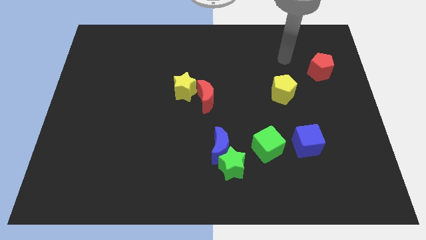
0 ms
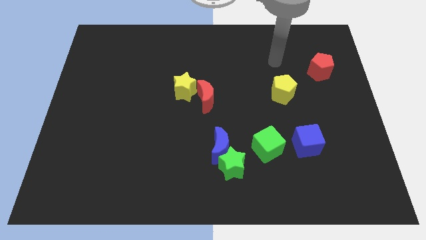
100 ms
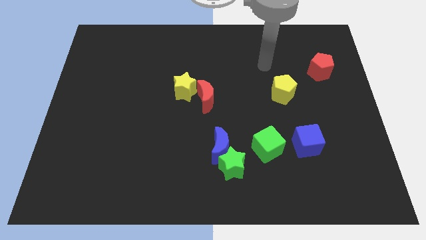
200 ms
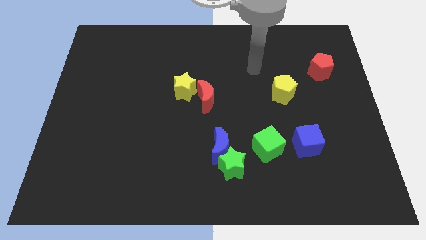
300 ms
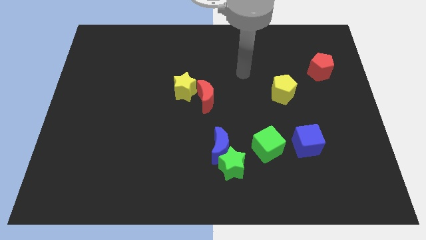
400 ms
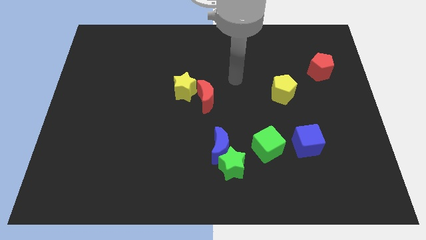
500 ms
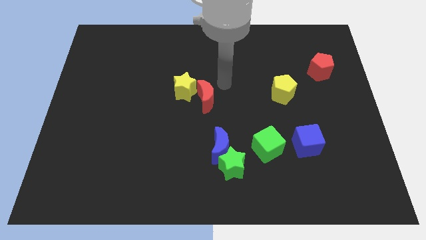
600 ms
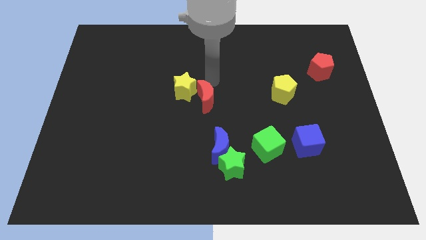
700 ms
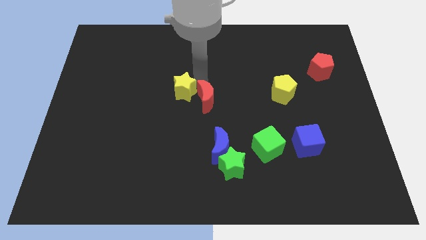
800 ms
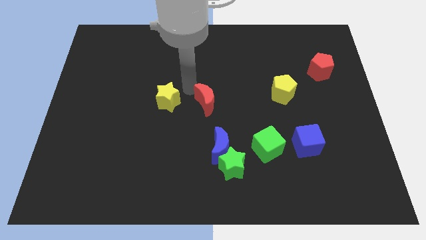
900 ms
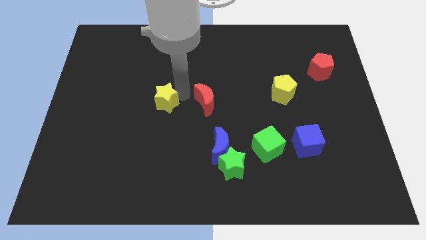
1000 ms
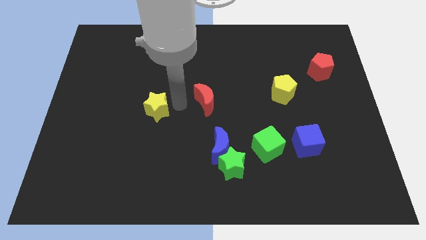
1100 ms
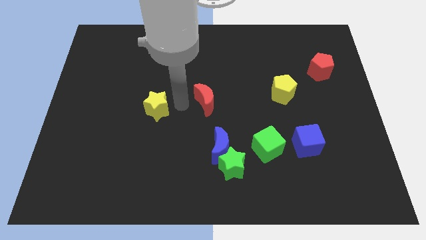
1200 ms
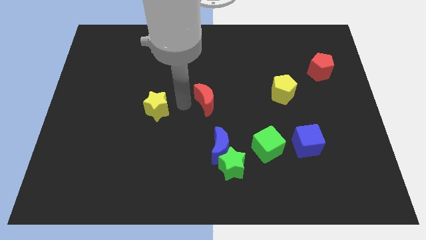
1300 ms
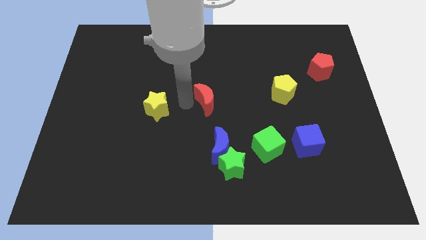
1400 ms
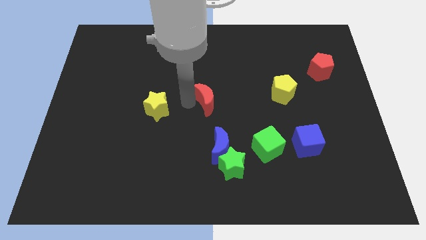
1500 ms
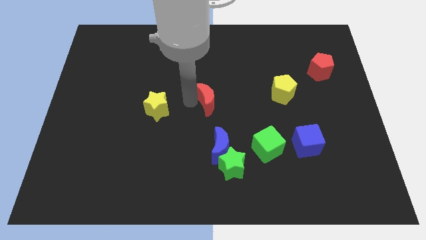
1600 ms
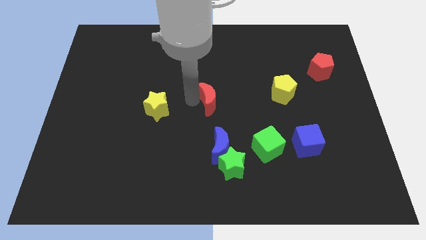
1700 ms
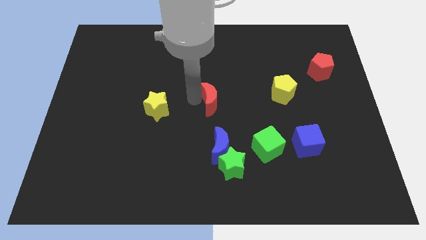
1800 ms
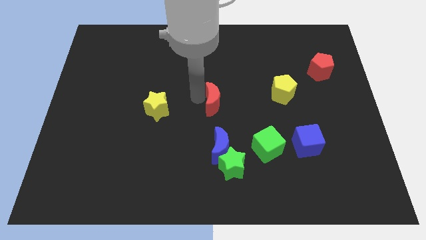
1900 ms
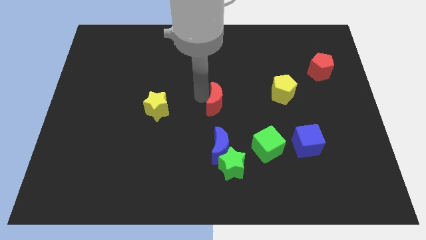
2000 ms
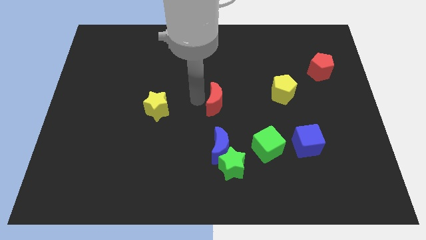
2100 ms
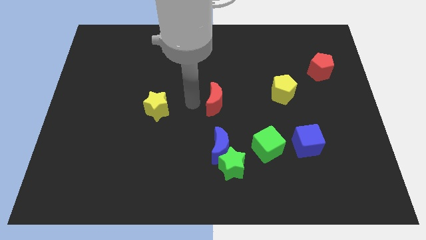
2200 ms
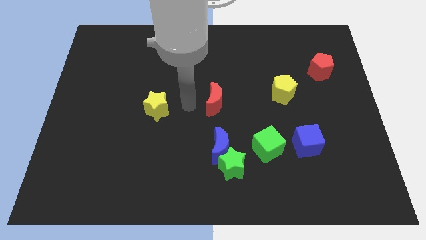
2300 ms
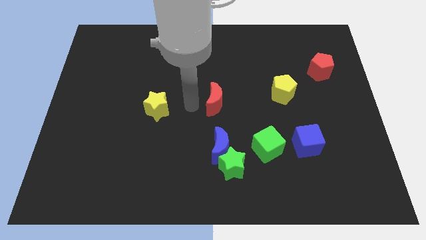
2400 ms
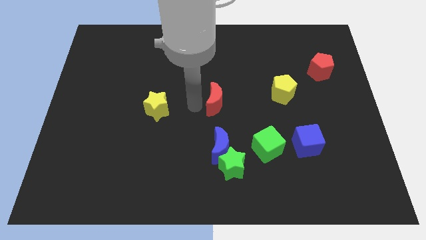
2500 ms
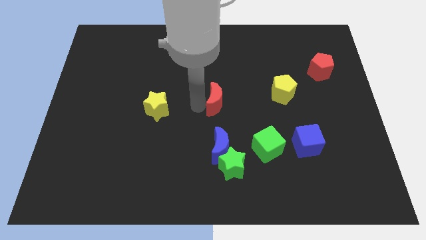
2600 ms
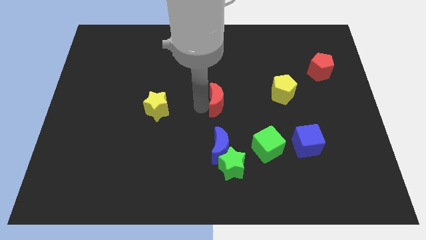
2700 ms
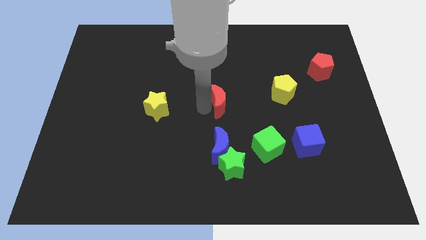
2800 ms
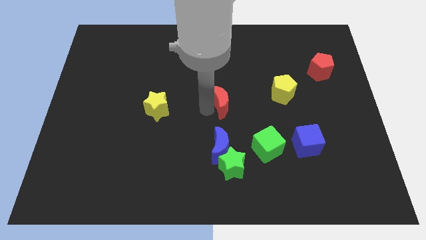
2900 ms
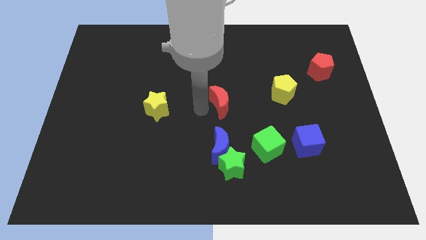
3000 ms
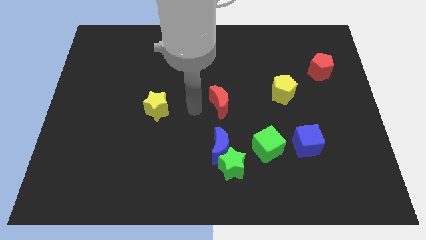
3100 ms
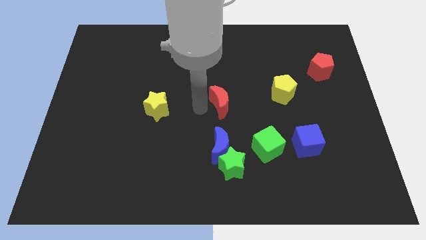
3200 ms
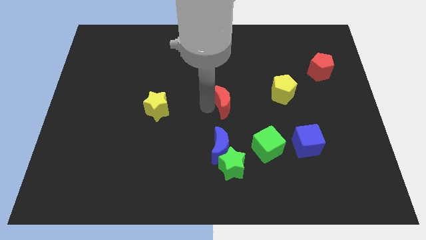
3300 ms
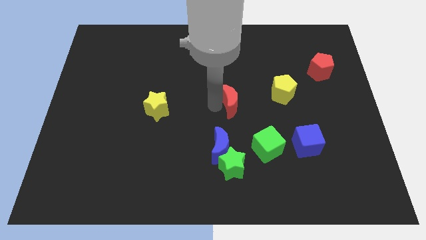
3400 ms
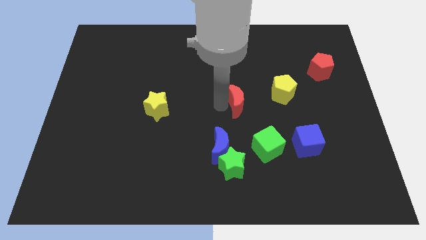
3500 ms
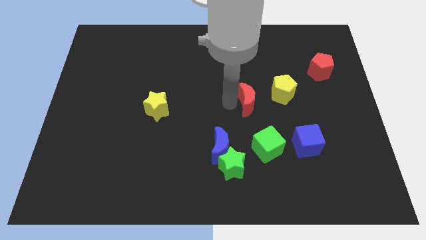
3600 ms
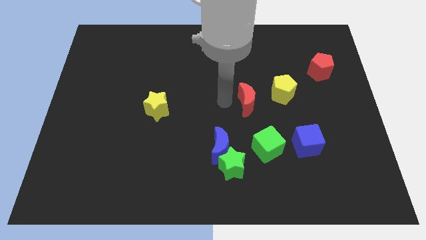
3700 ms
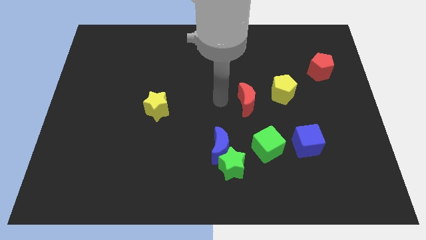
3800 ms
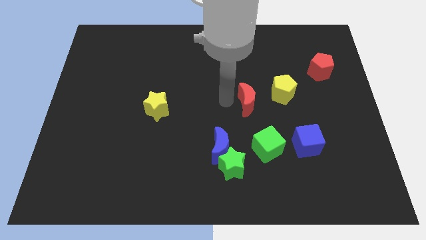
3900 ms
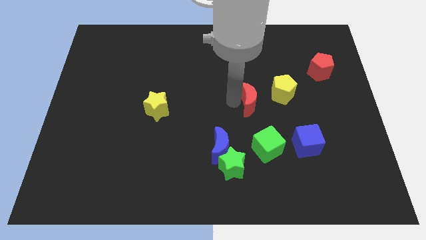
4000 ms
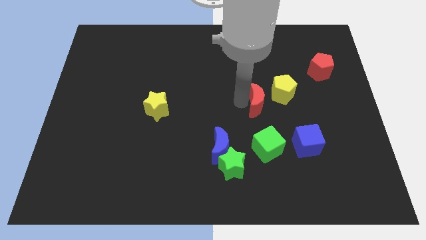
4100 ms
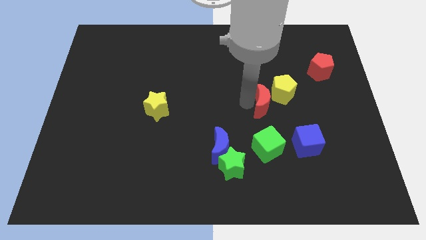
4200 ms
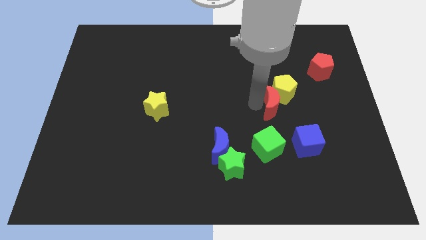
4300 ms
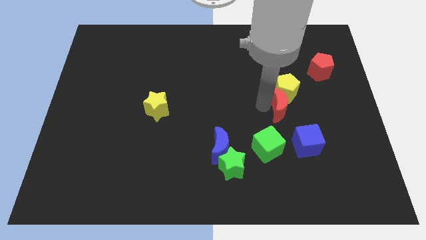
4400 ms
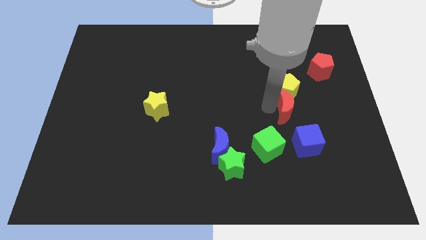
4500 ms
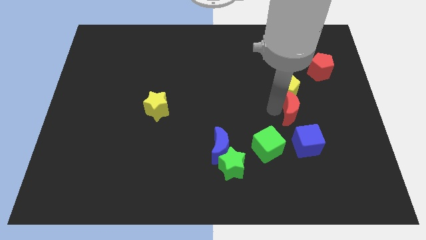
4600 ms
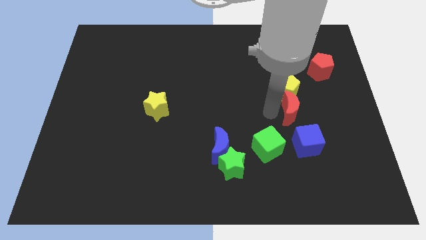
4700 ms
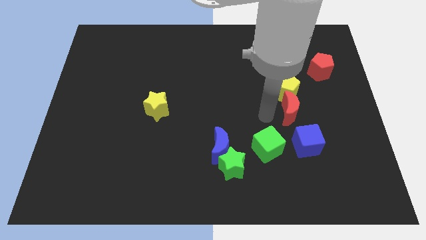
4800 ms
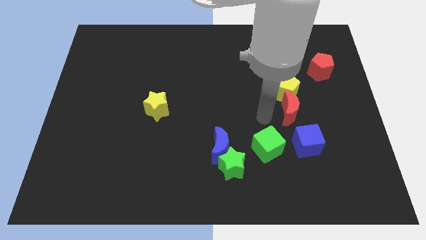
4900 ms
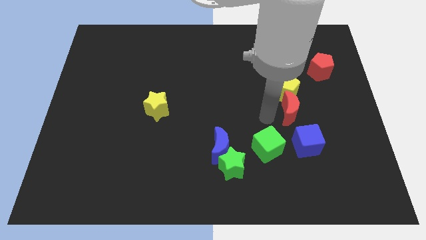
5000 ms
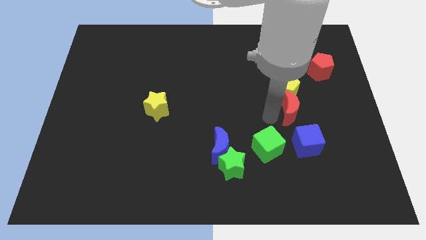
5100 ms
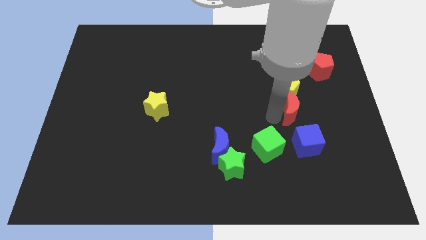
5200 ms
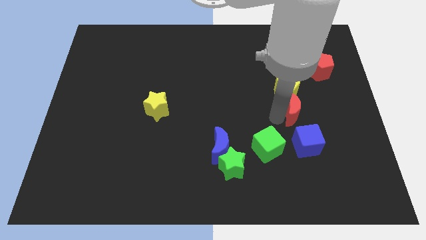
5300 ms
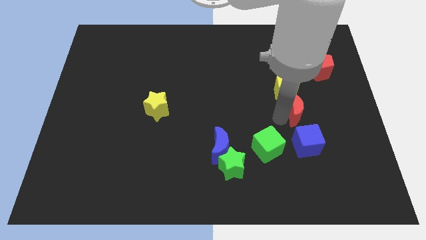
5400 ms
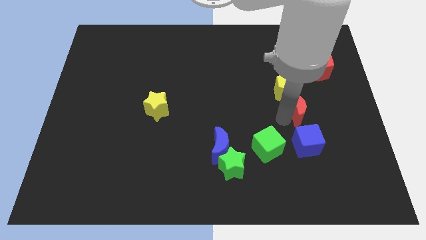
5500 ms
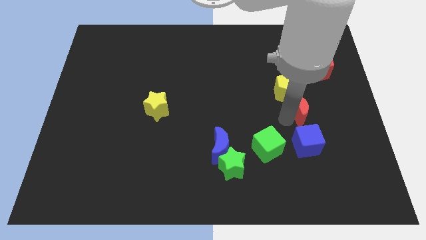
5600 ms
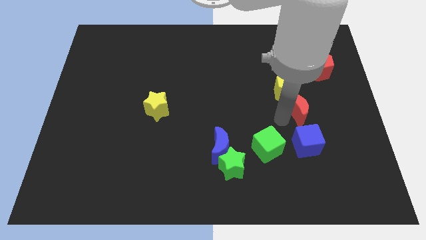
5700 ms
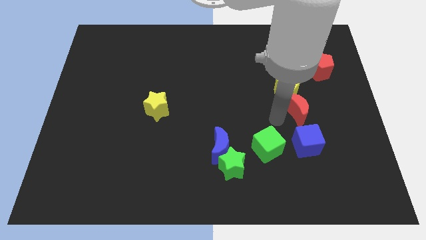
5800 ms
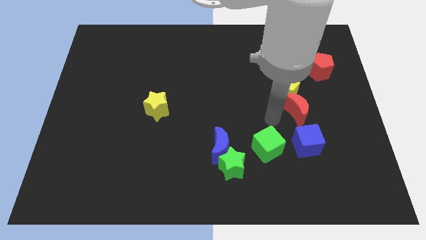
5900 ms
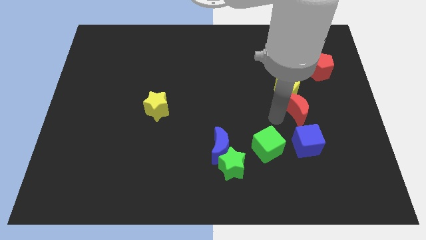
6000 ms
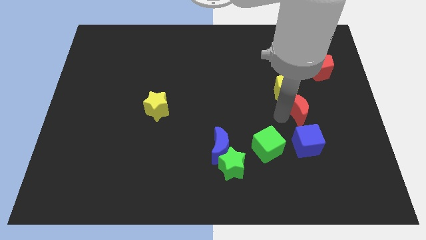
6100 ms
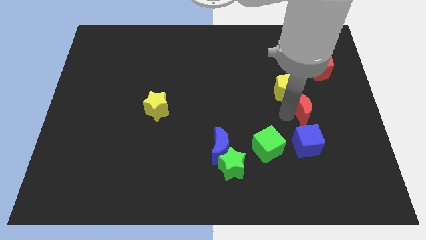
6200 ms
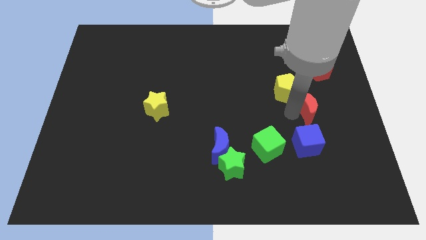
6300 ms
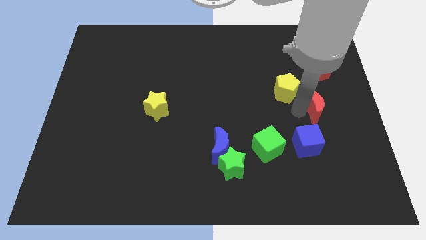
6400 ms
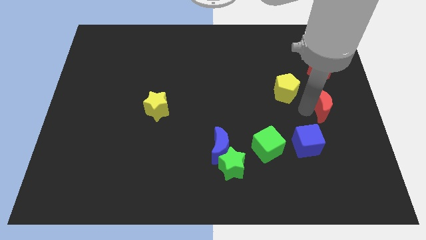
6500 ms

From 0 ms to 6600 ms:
push the red moon to the center right

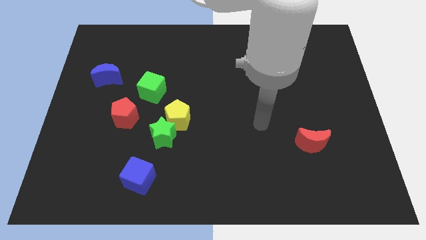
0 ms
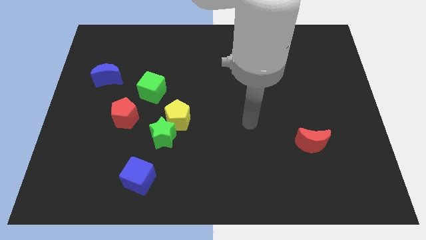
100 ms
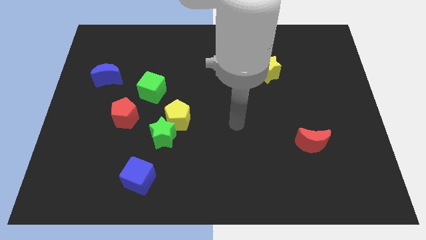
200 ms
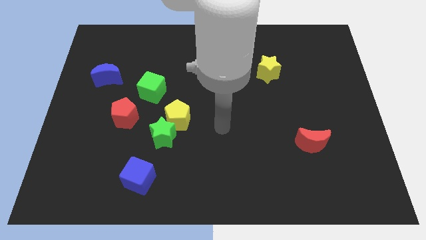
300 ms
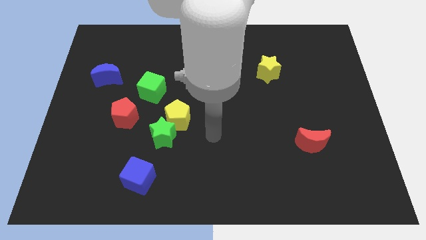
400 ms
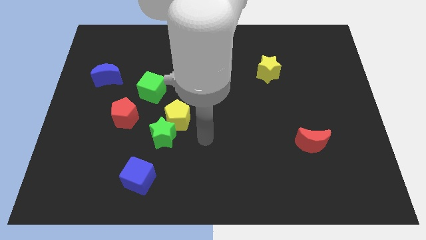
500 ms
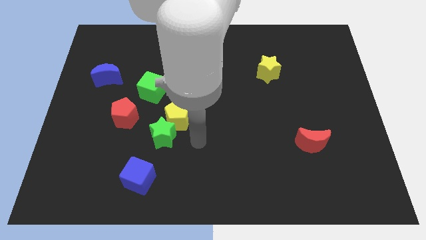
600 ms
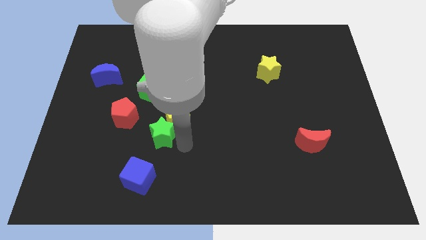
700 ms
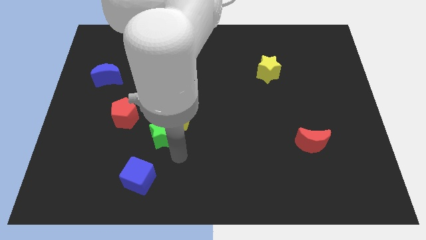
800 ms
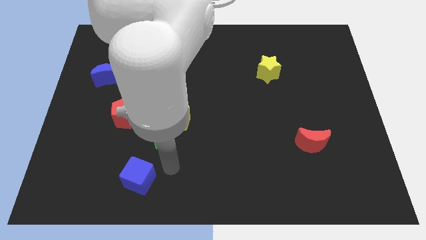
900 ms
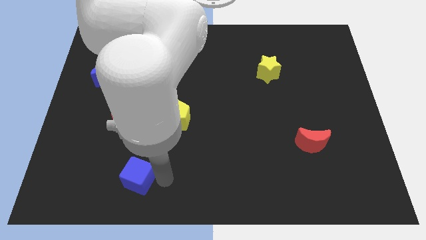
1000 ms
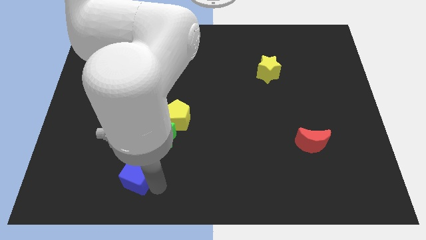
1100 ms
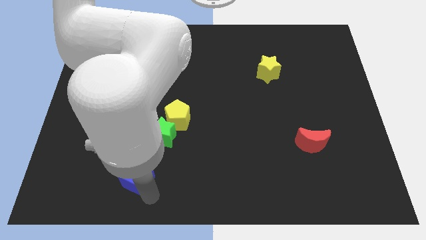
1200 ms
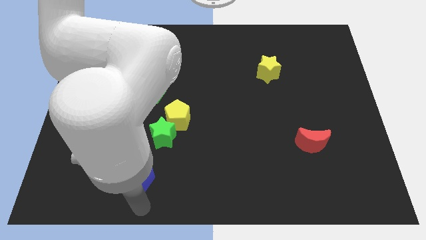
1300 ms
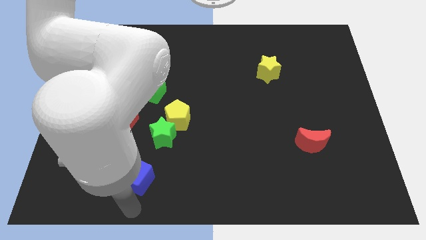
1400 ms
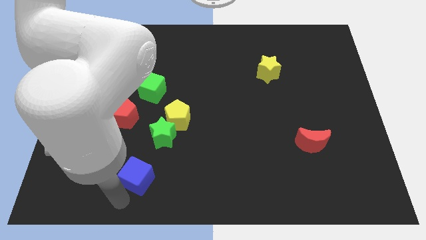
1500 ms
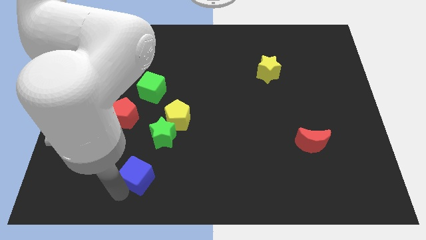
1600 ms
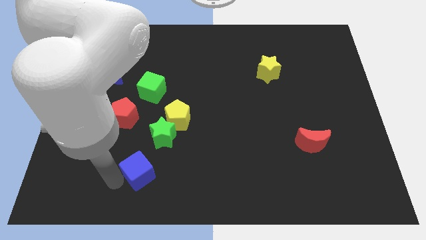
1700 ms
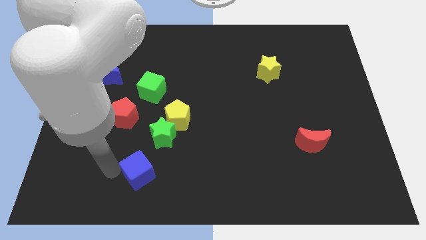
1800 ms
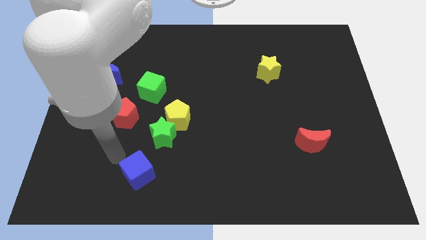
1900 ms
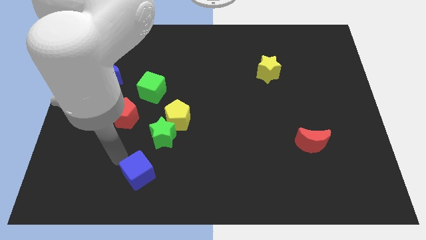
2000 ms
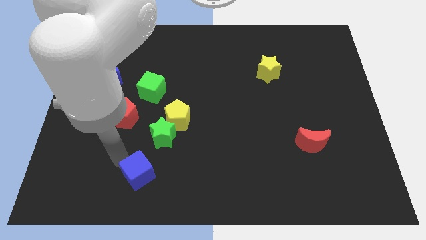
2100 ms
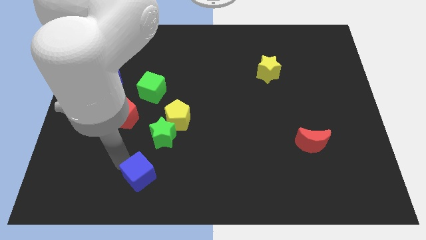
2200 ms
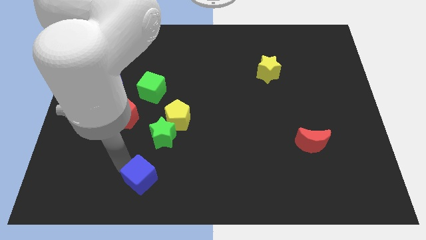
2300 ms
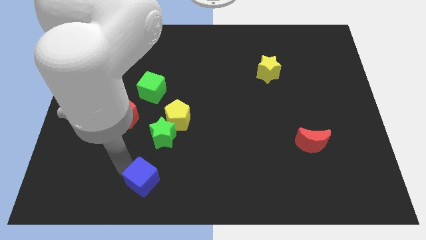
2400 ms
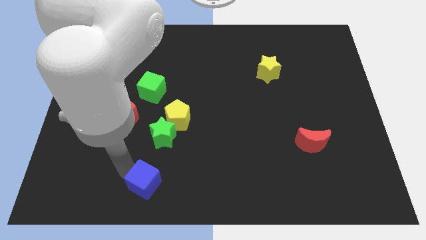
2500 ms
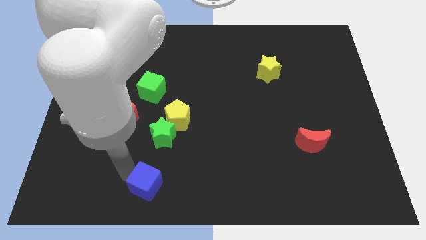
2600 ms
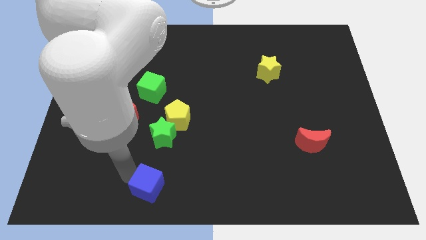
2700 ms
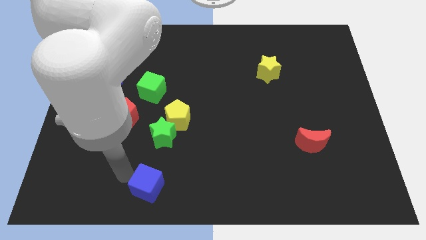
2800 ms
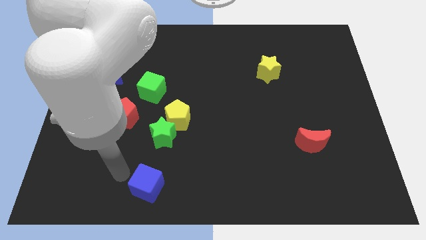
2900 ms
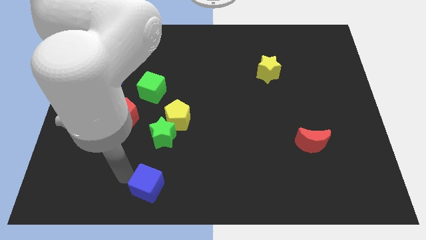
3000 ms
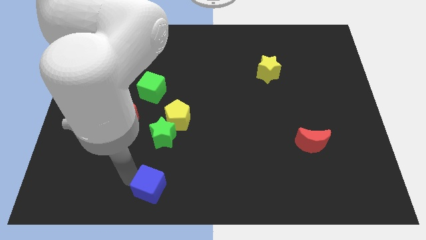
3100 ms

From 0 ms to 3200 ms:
put the blue cube to the bottom side
